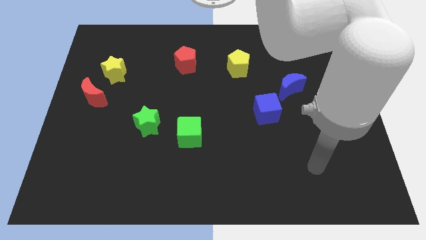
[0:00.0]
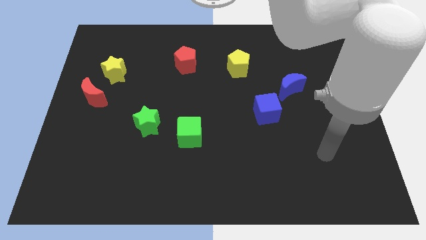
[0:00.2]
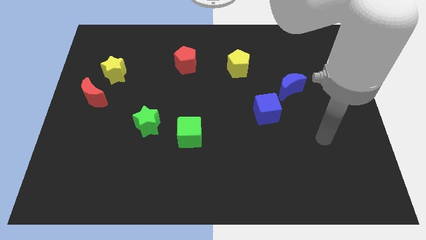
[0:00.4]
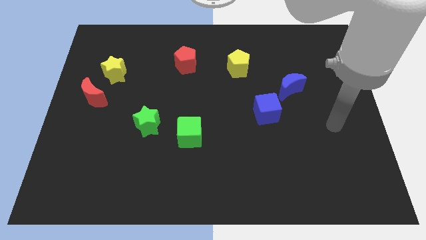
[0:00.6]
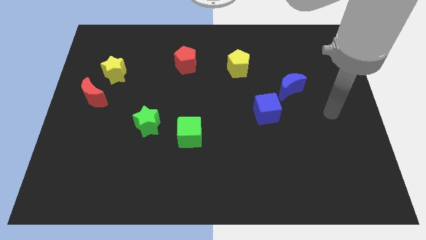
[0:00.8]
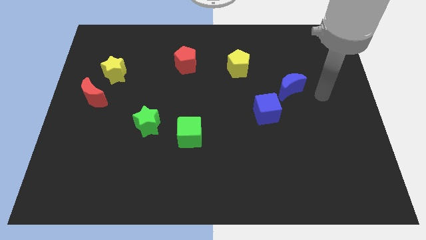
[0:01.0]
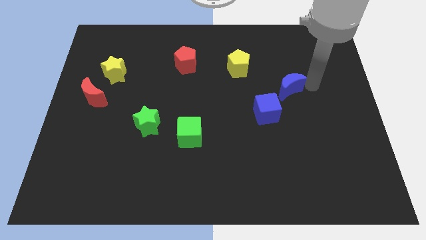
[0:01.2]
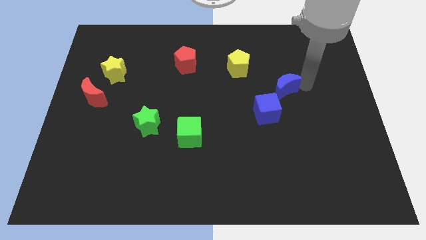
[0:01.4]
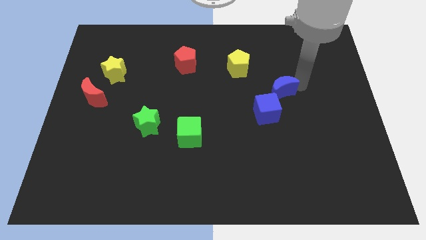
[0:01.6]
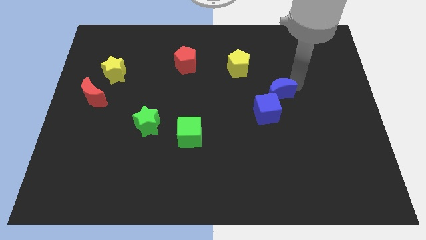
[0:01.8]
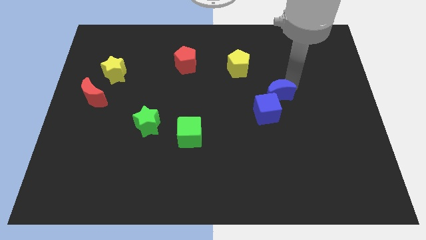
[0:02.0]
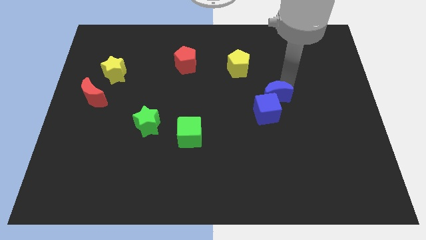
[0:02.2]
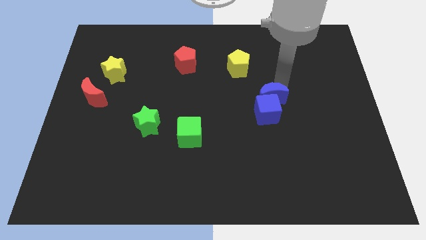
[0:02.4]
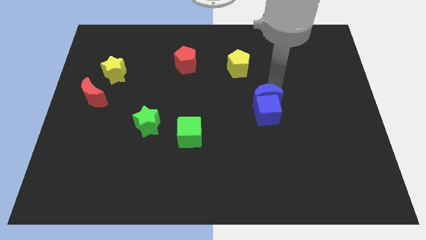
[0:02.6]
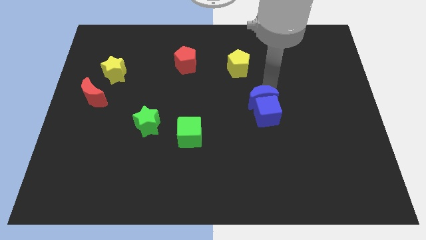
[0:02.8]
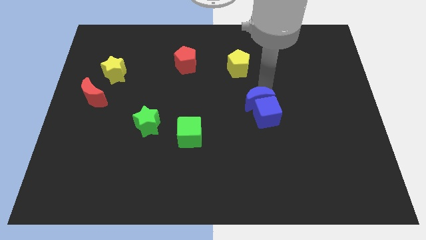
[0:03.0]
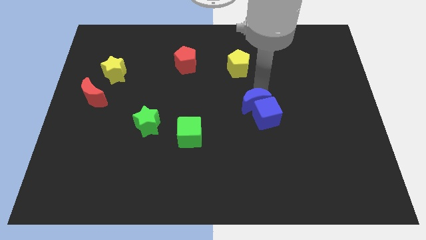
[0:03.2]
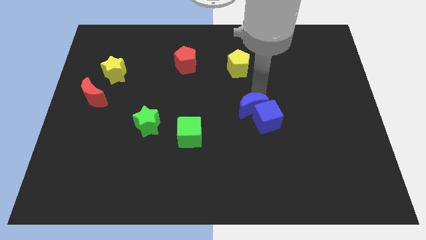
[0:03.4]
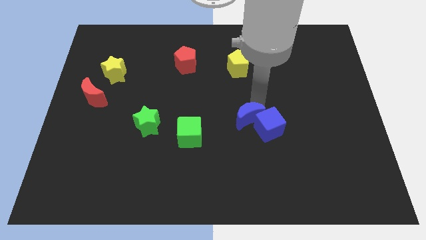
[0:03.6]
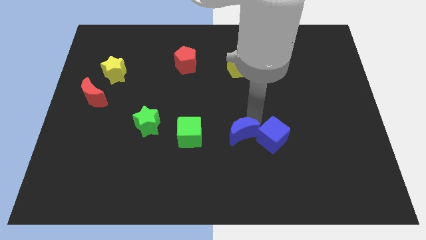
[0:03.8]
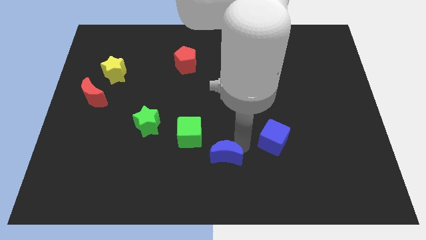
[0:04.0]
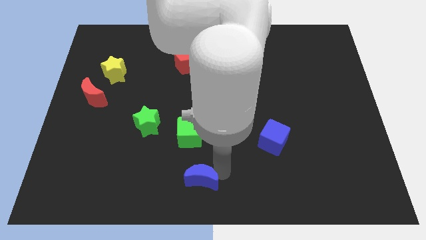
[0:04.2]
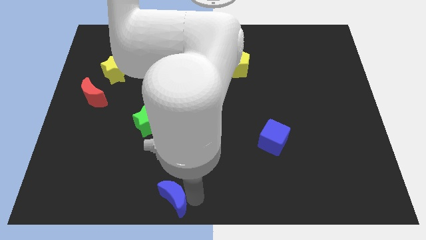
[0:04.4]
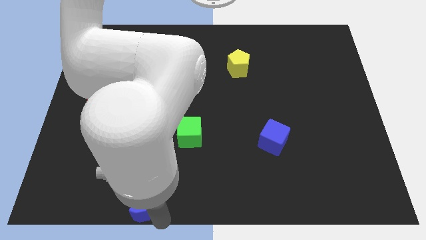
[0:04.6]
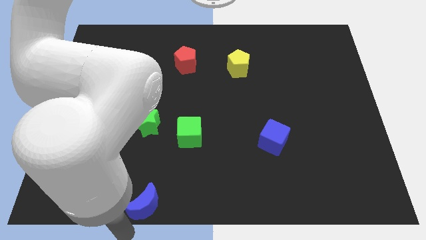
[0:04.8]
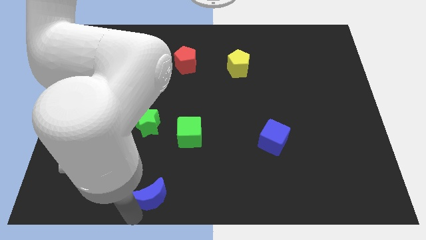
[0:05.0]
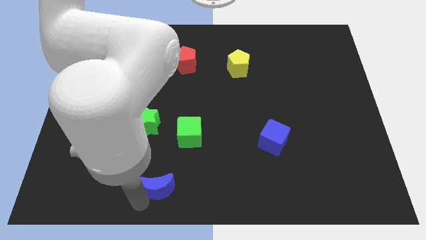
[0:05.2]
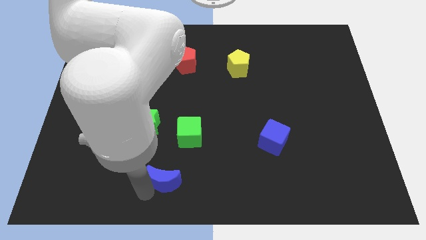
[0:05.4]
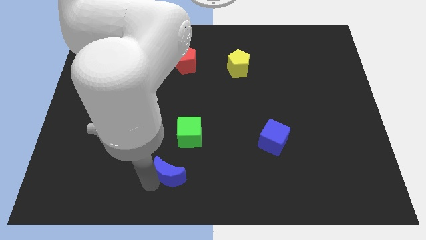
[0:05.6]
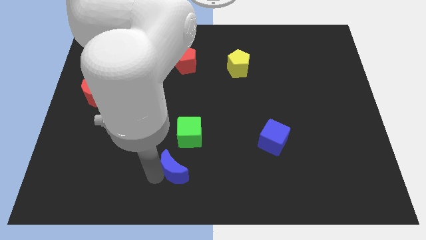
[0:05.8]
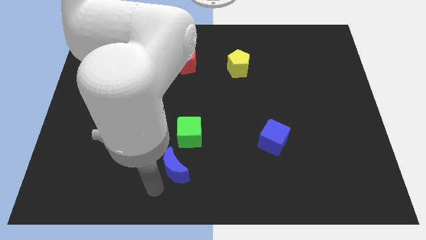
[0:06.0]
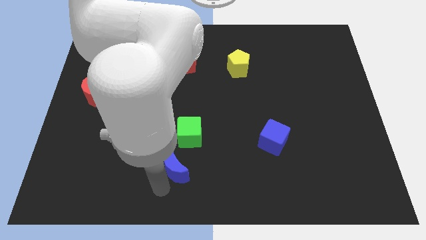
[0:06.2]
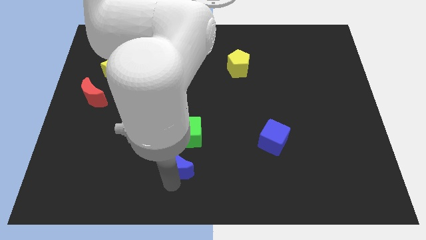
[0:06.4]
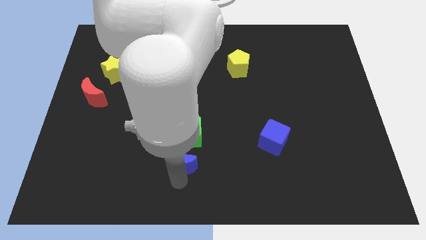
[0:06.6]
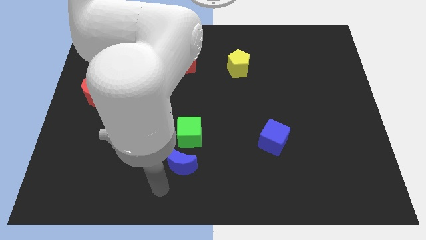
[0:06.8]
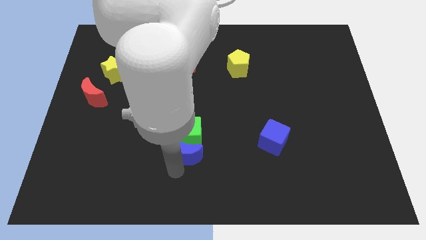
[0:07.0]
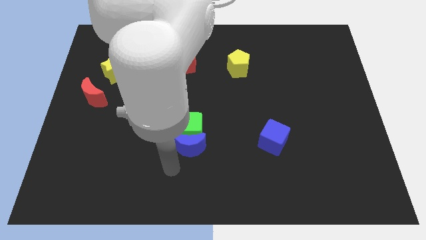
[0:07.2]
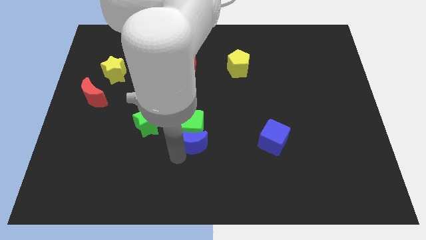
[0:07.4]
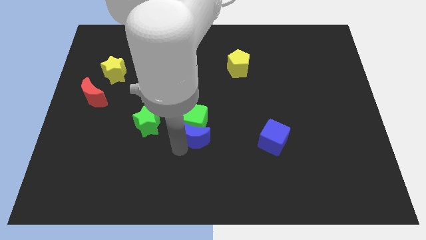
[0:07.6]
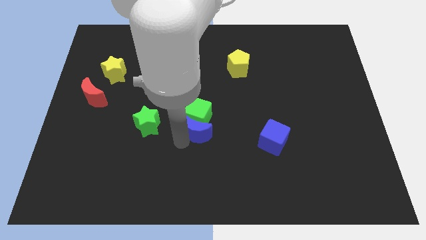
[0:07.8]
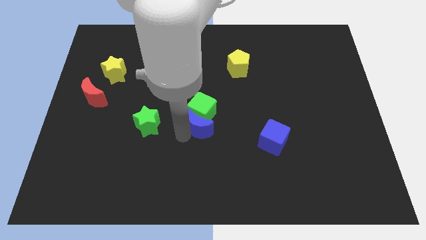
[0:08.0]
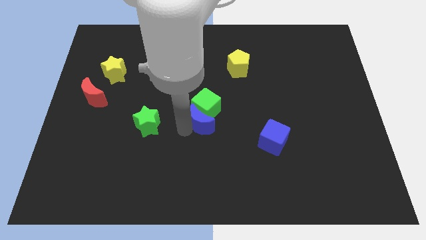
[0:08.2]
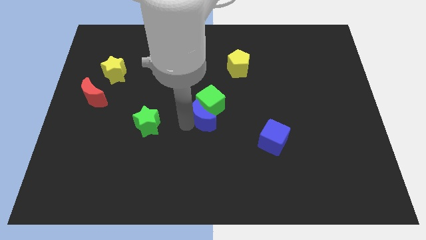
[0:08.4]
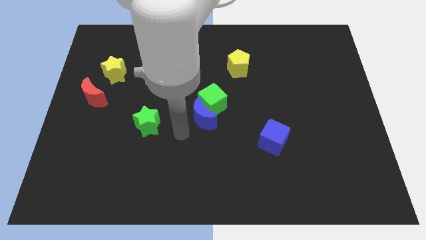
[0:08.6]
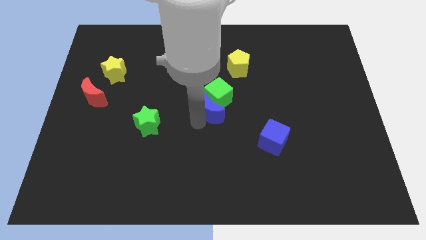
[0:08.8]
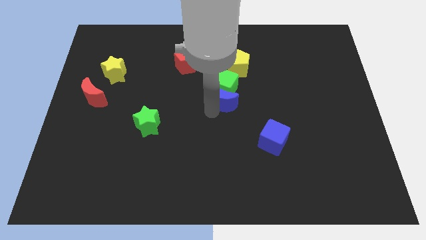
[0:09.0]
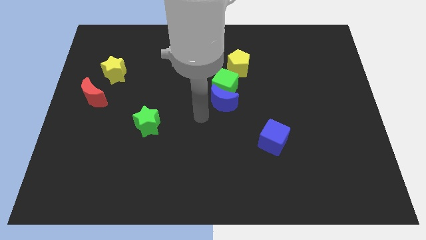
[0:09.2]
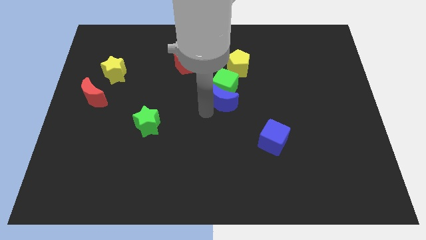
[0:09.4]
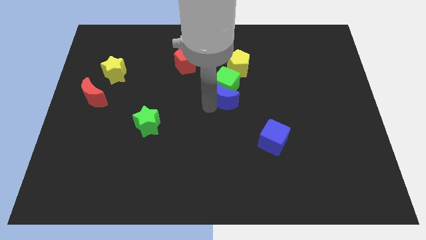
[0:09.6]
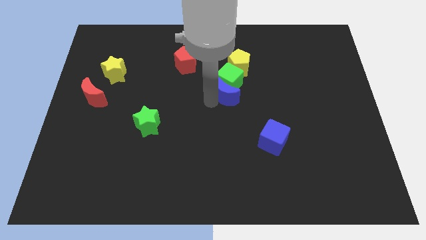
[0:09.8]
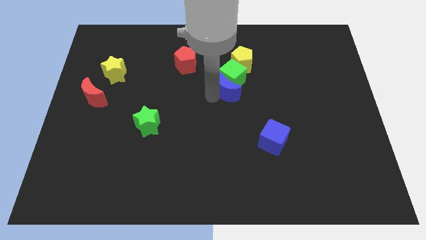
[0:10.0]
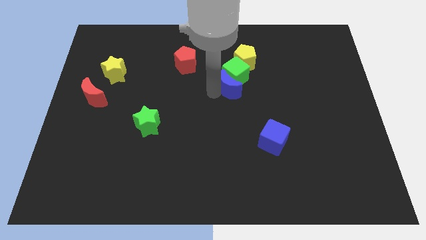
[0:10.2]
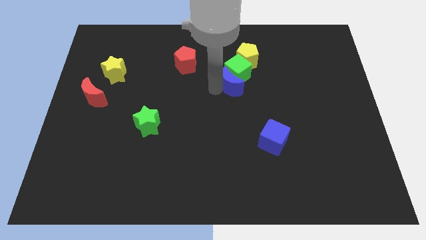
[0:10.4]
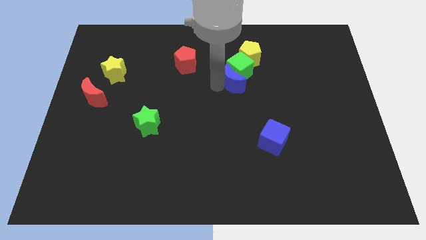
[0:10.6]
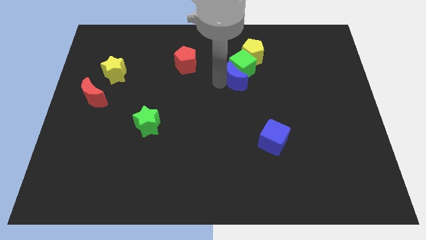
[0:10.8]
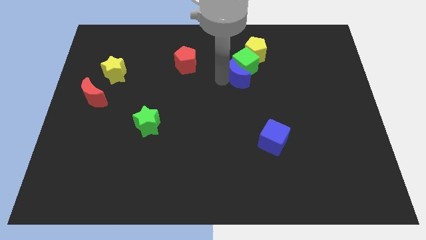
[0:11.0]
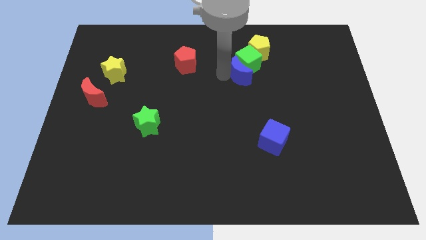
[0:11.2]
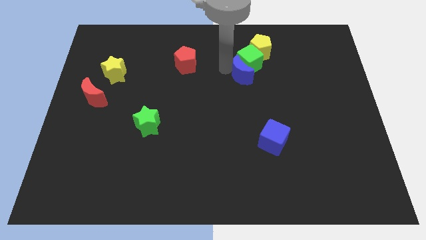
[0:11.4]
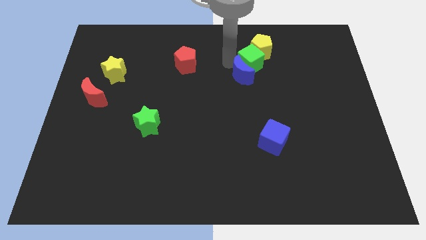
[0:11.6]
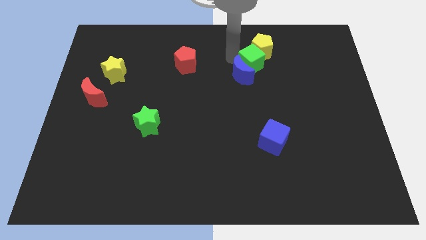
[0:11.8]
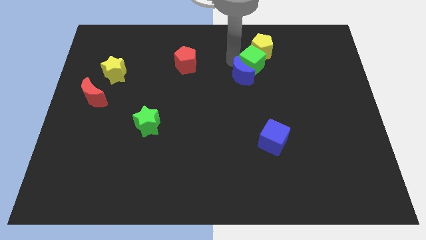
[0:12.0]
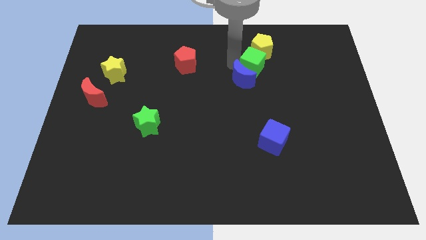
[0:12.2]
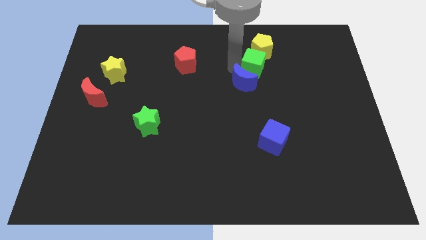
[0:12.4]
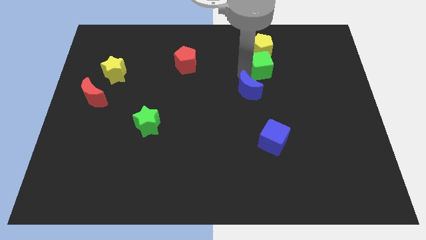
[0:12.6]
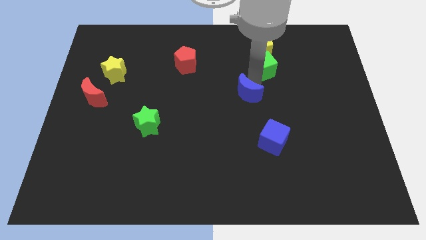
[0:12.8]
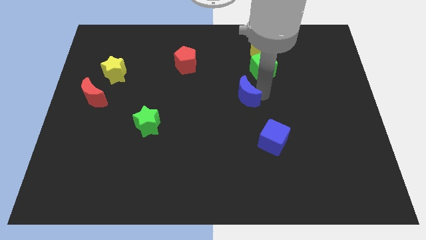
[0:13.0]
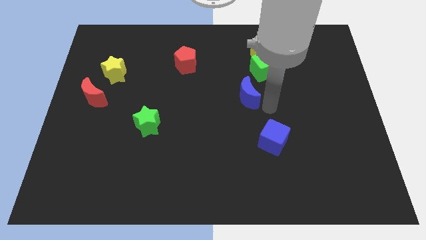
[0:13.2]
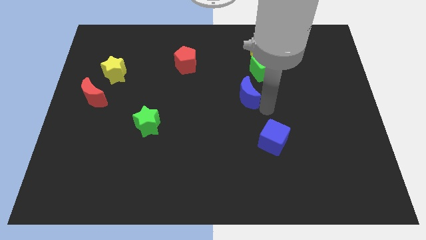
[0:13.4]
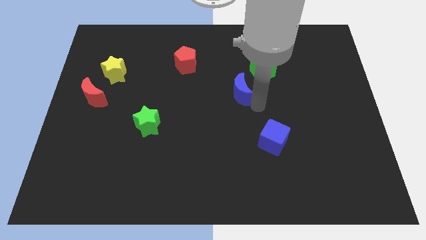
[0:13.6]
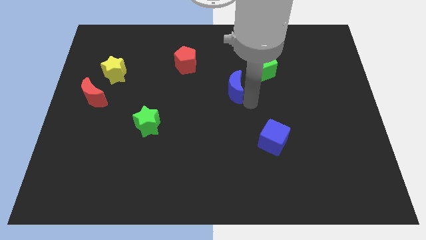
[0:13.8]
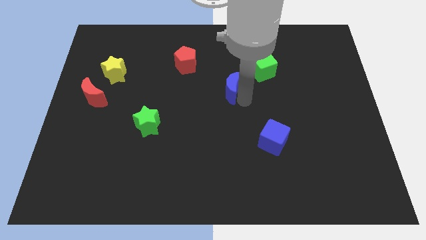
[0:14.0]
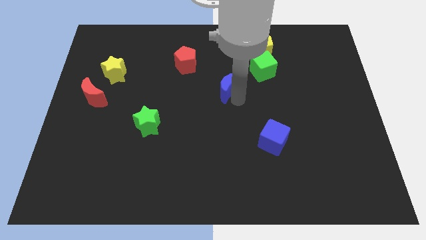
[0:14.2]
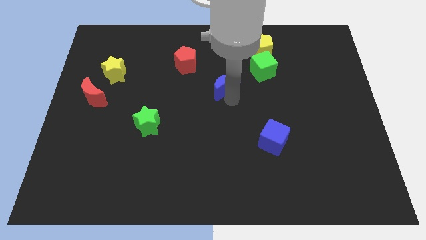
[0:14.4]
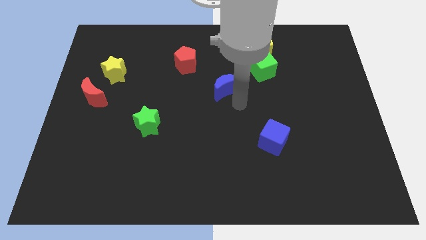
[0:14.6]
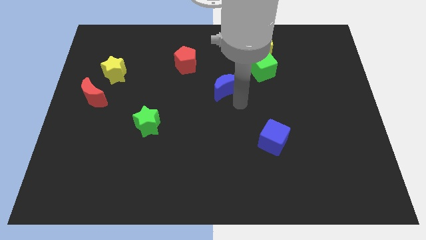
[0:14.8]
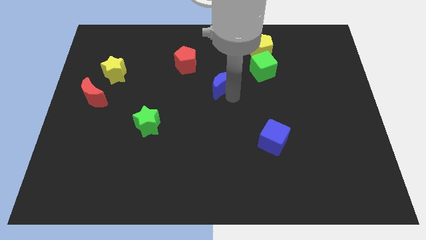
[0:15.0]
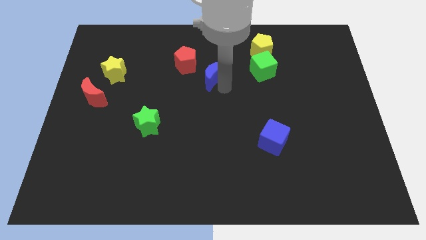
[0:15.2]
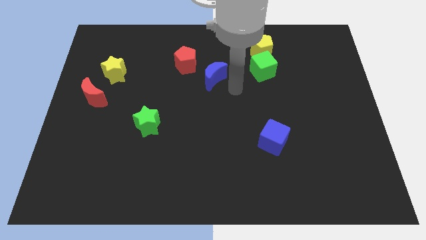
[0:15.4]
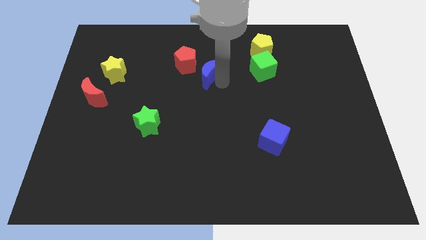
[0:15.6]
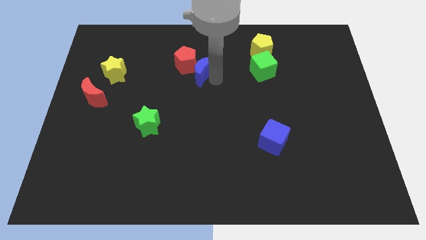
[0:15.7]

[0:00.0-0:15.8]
push the blue moon next to the red pentagon
